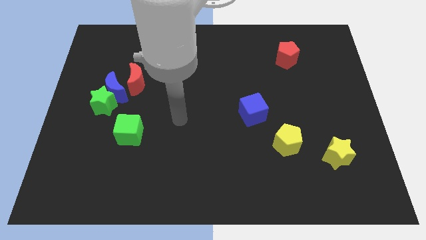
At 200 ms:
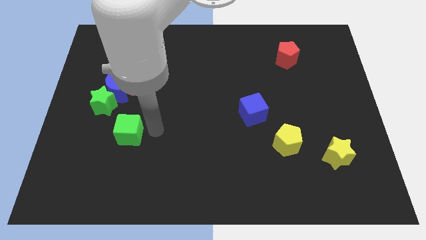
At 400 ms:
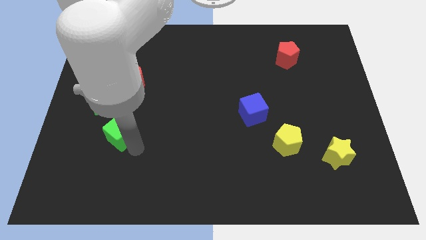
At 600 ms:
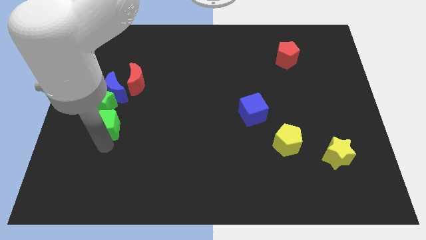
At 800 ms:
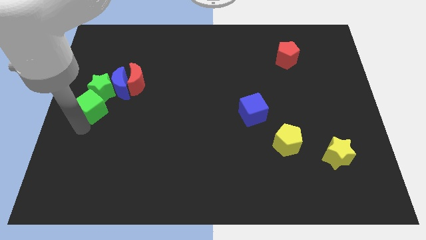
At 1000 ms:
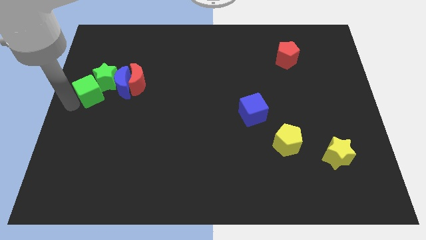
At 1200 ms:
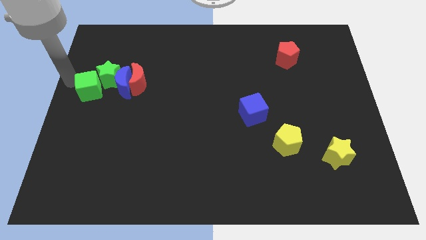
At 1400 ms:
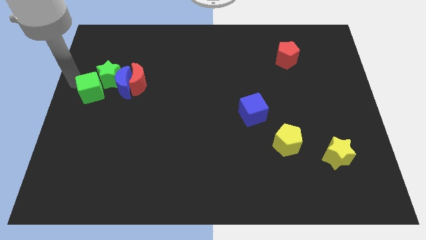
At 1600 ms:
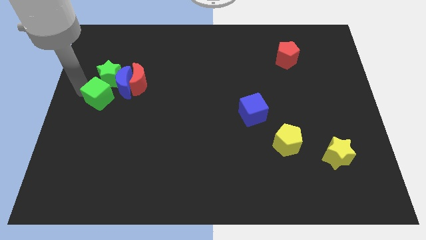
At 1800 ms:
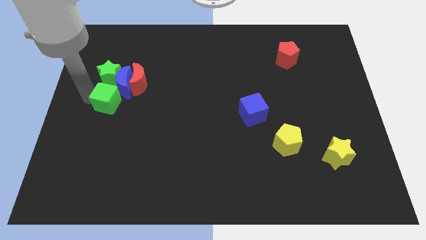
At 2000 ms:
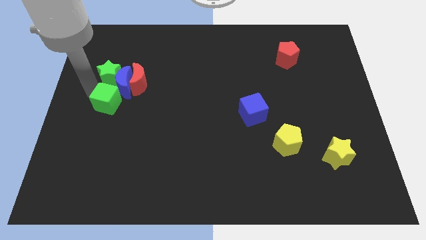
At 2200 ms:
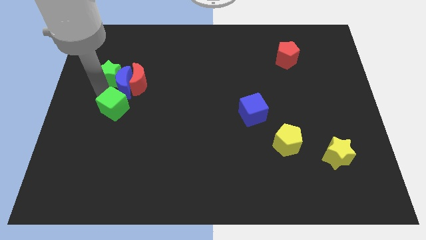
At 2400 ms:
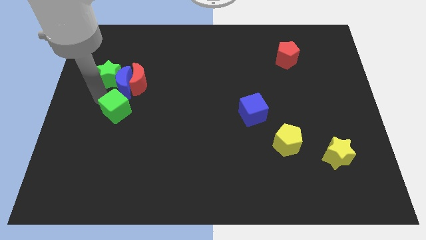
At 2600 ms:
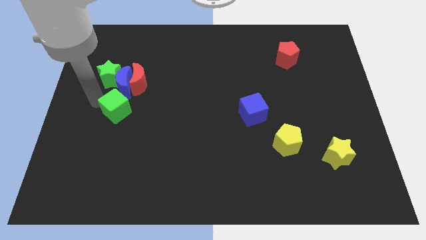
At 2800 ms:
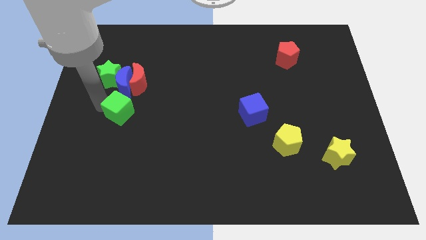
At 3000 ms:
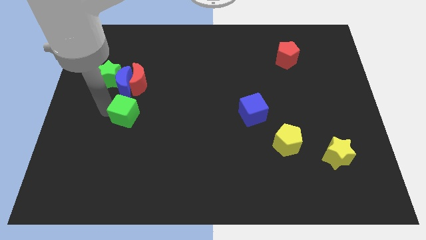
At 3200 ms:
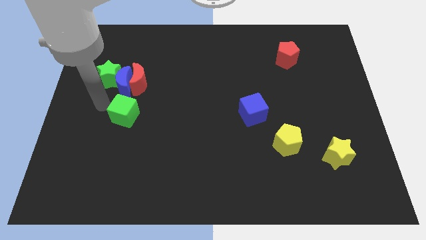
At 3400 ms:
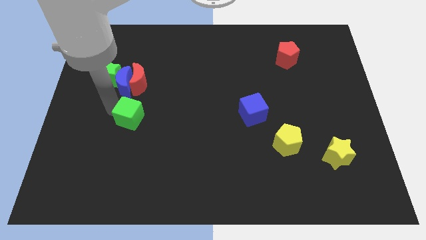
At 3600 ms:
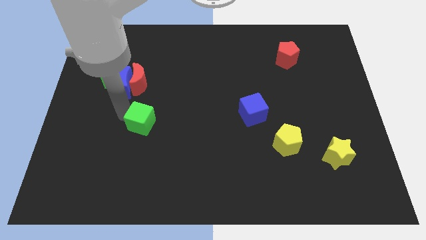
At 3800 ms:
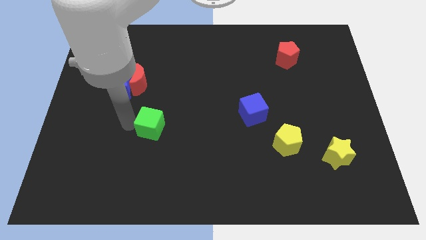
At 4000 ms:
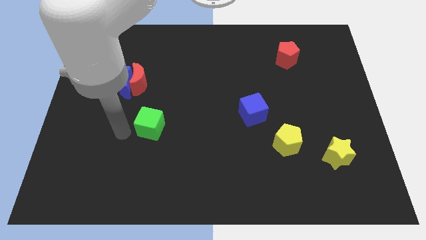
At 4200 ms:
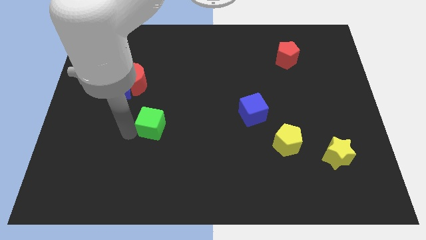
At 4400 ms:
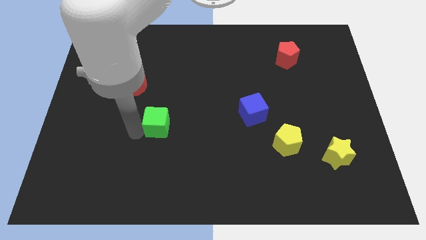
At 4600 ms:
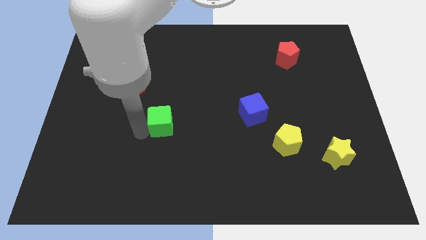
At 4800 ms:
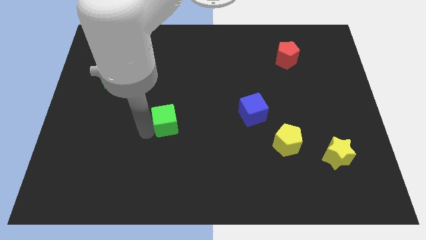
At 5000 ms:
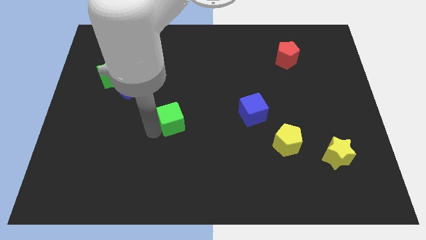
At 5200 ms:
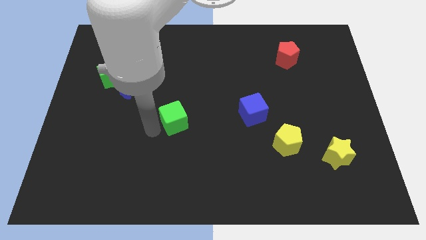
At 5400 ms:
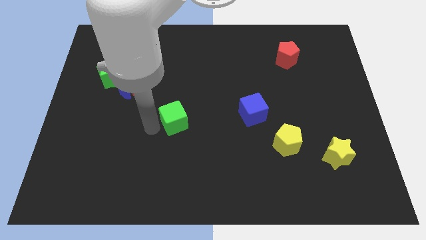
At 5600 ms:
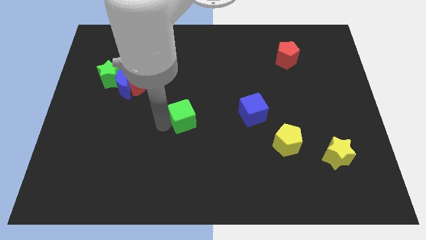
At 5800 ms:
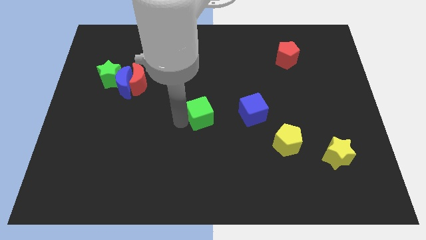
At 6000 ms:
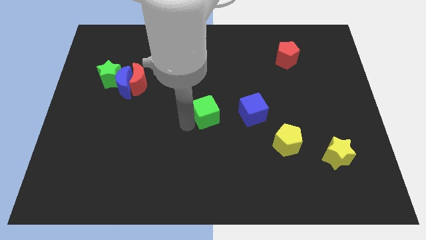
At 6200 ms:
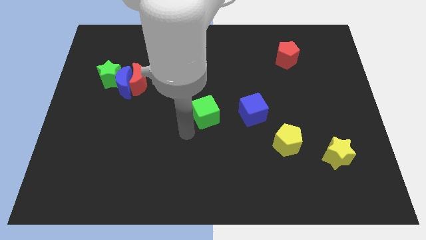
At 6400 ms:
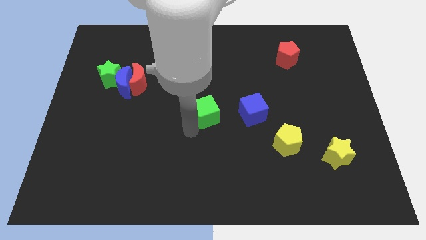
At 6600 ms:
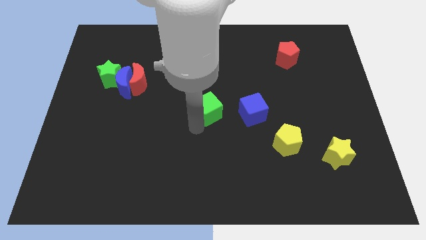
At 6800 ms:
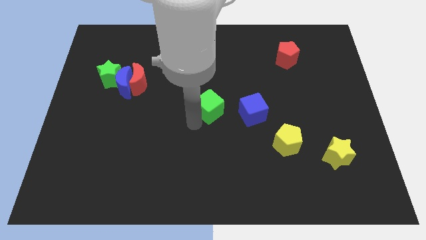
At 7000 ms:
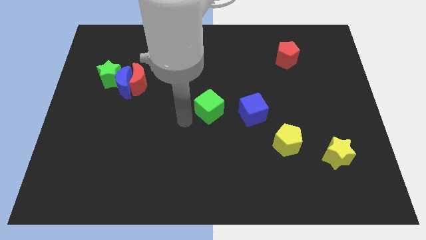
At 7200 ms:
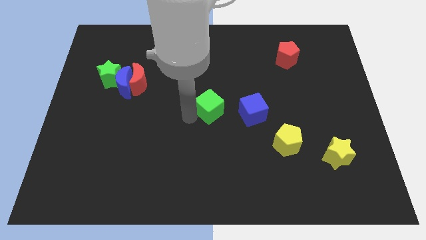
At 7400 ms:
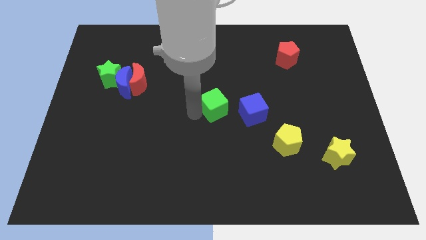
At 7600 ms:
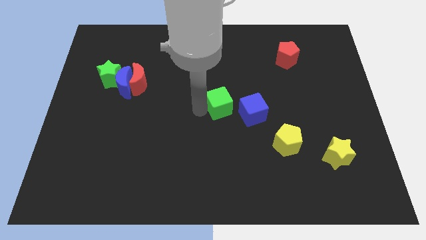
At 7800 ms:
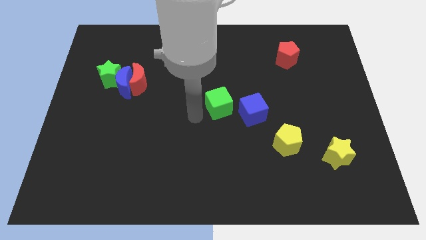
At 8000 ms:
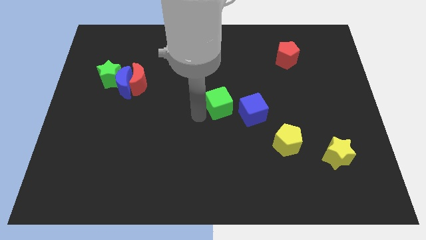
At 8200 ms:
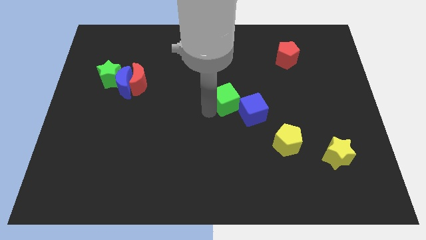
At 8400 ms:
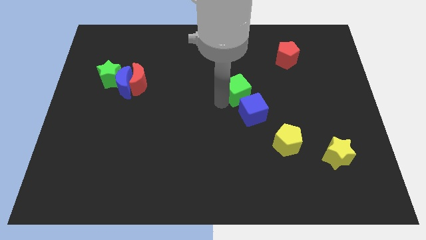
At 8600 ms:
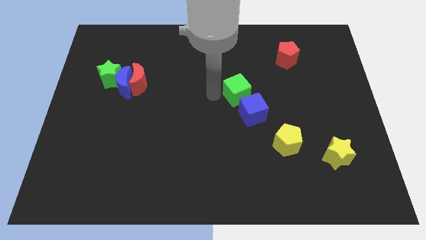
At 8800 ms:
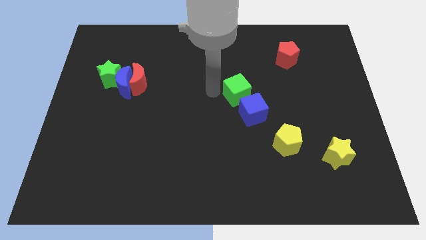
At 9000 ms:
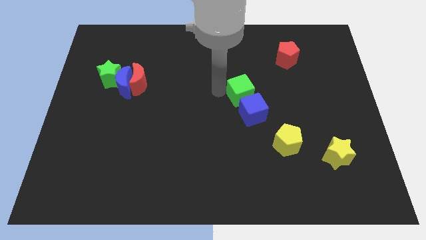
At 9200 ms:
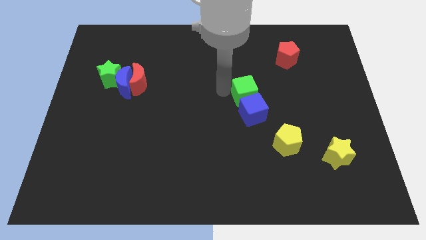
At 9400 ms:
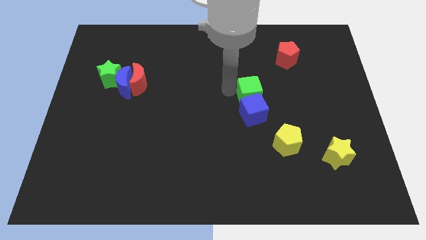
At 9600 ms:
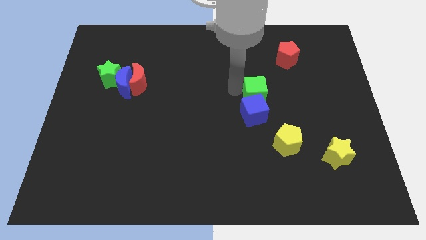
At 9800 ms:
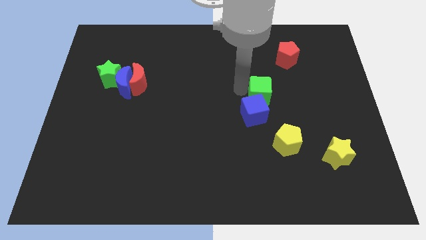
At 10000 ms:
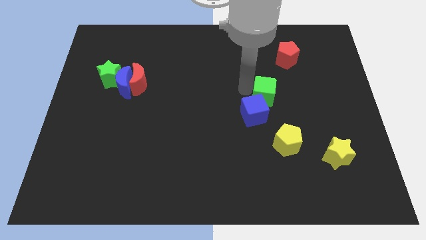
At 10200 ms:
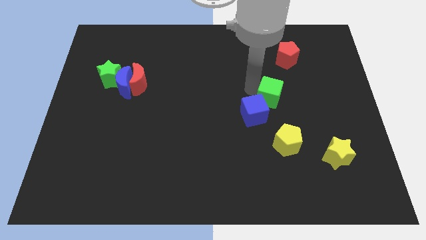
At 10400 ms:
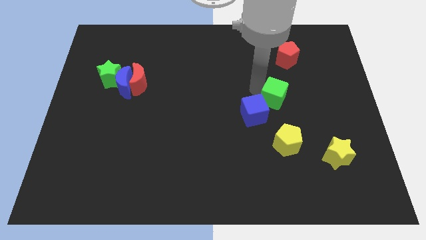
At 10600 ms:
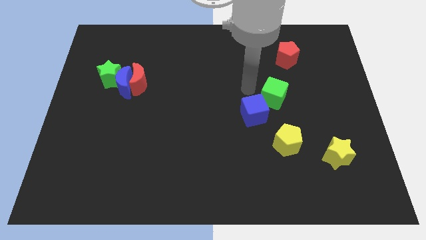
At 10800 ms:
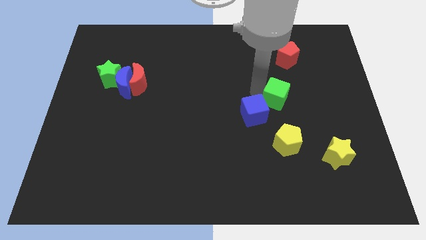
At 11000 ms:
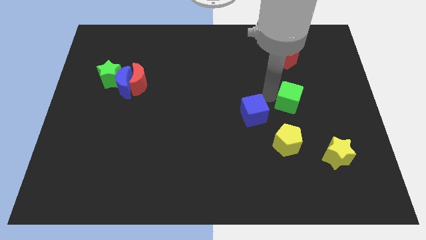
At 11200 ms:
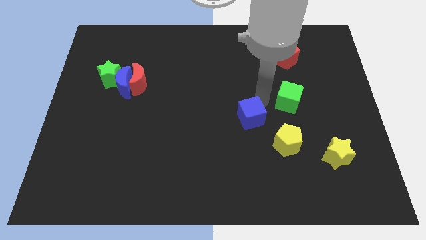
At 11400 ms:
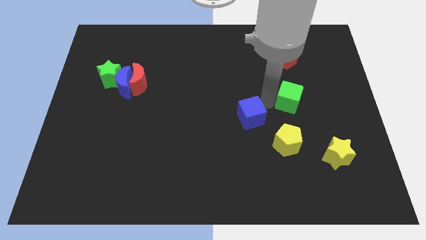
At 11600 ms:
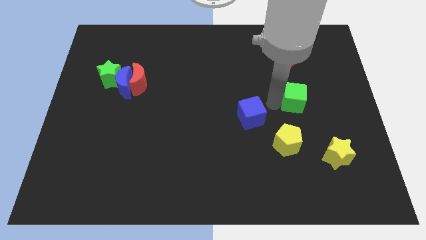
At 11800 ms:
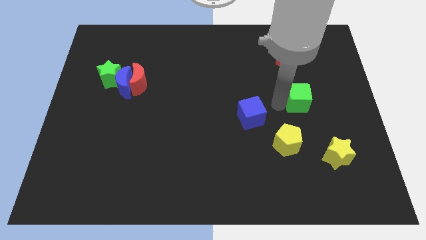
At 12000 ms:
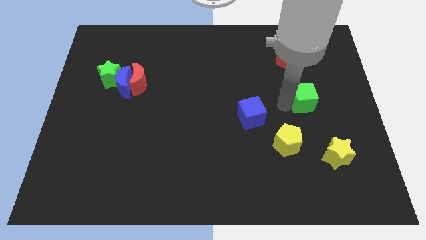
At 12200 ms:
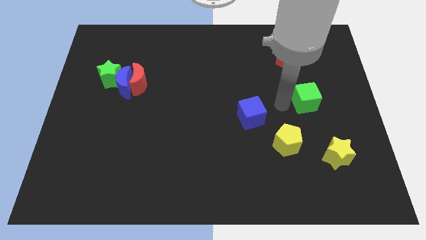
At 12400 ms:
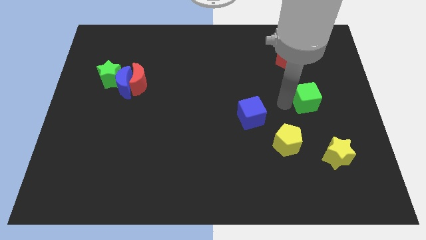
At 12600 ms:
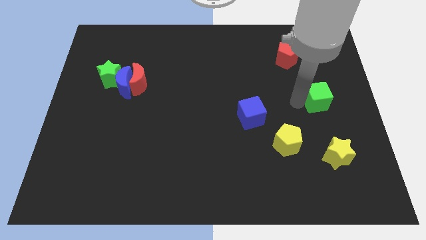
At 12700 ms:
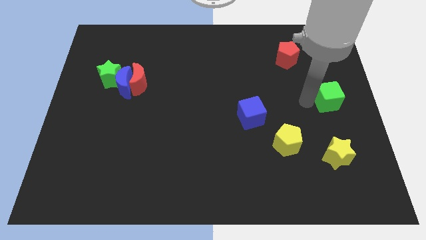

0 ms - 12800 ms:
move the green cube to the right side

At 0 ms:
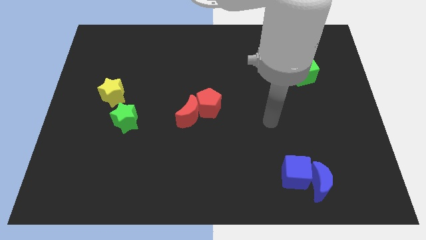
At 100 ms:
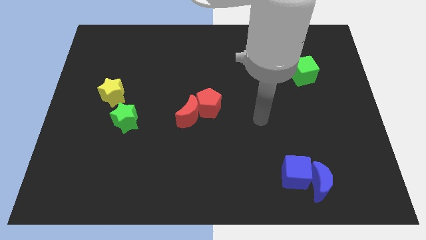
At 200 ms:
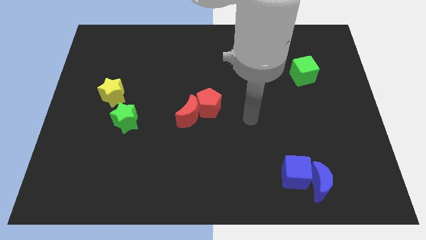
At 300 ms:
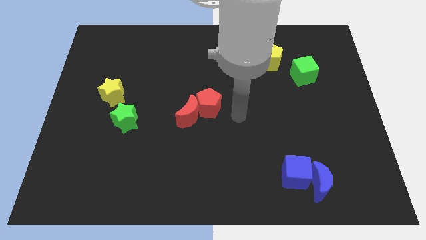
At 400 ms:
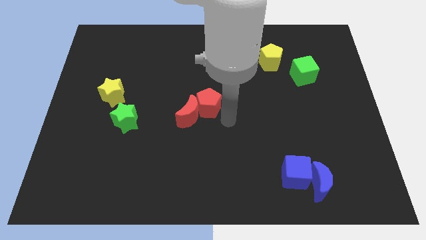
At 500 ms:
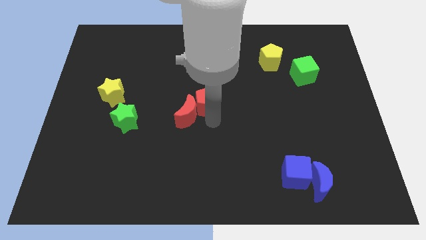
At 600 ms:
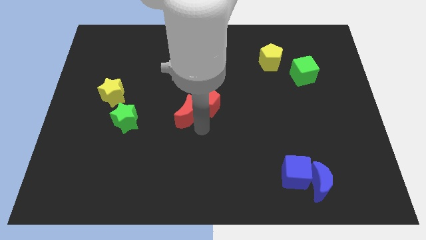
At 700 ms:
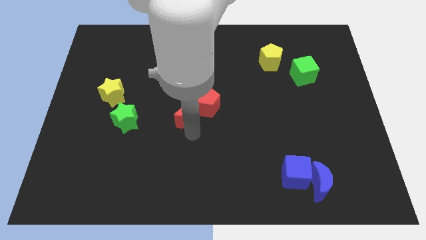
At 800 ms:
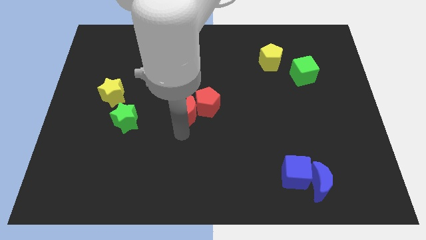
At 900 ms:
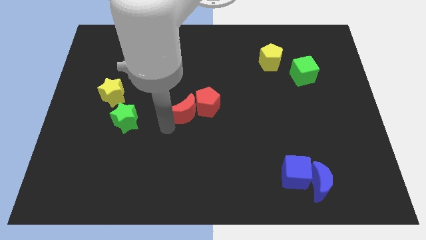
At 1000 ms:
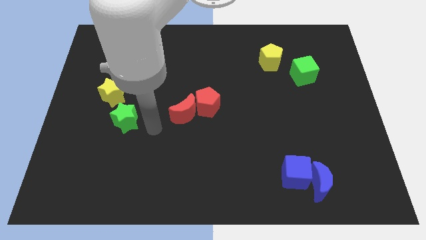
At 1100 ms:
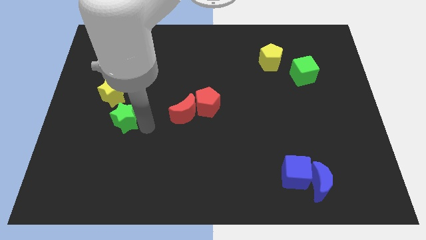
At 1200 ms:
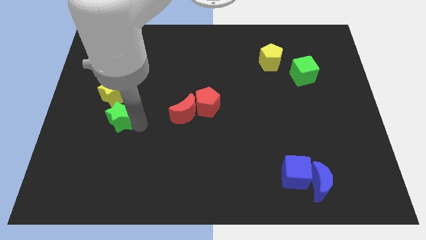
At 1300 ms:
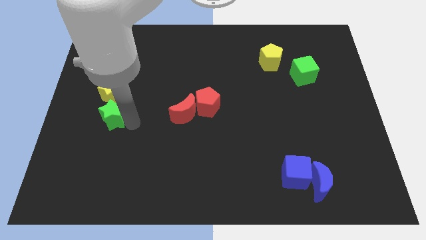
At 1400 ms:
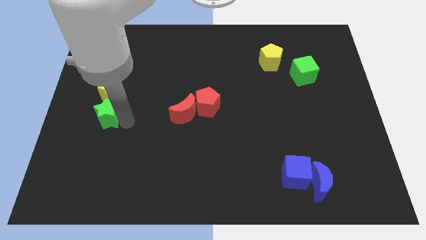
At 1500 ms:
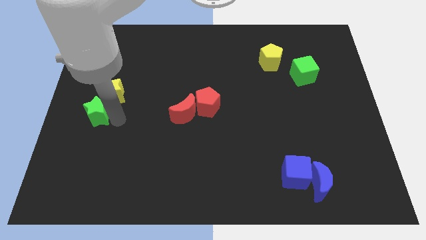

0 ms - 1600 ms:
move the green star to the left side
